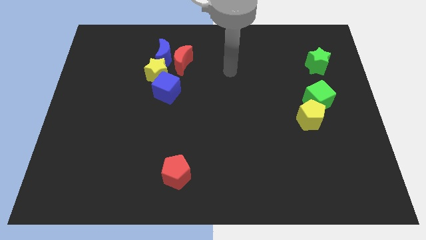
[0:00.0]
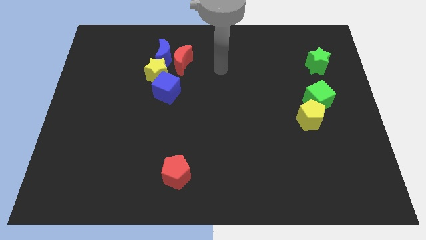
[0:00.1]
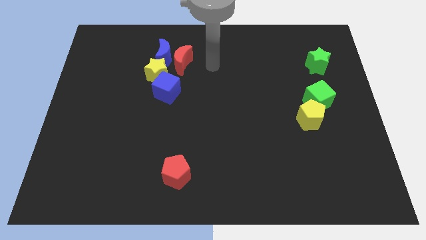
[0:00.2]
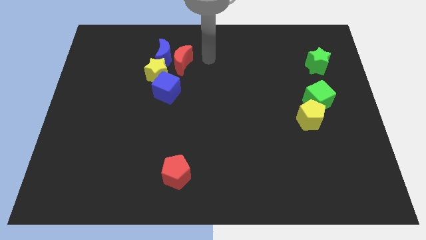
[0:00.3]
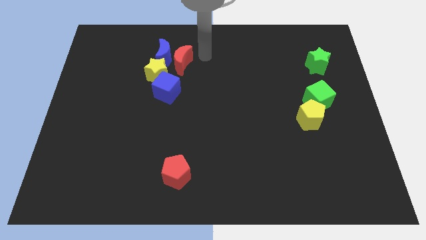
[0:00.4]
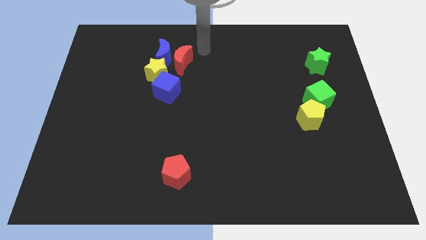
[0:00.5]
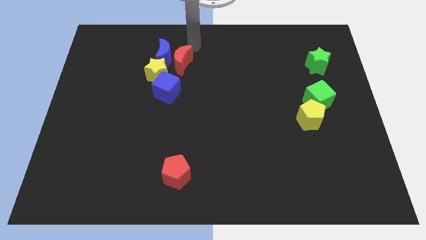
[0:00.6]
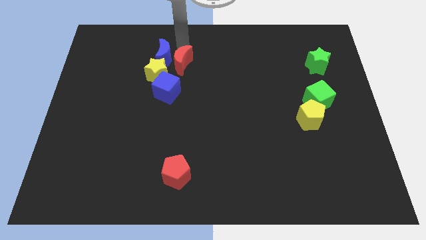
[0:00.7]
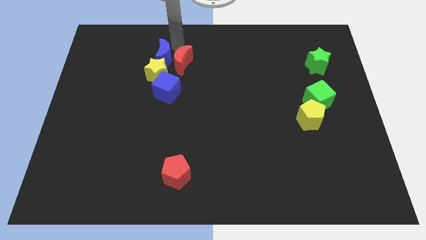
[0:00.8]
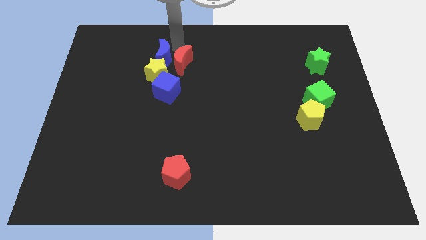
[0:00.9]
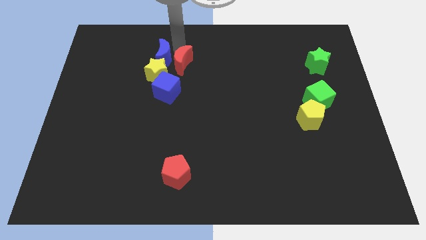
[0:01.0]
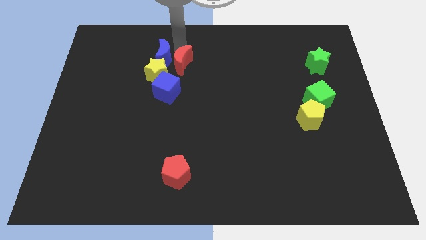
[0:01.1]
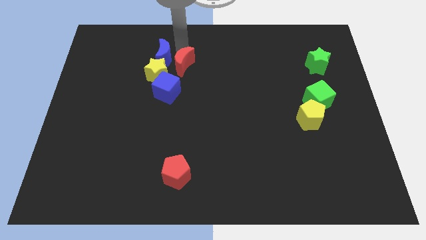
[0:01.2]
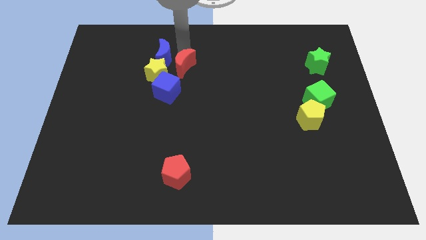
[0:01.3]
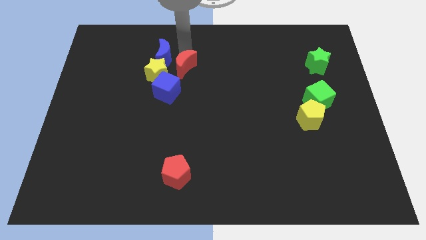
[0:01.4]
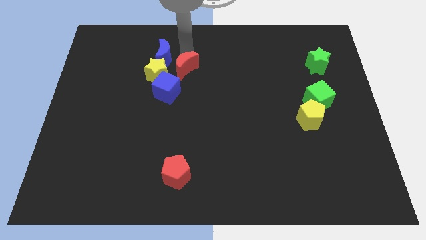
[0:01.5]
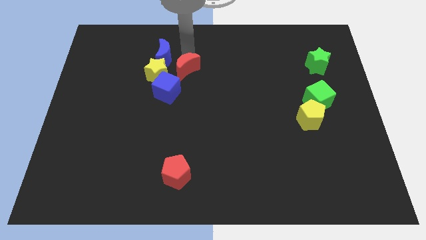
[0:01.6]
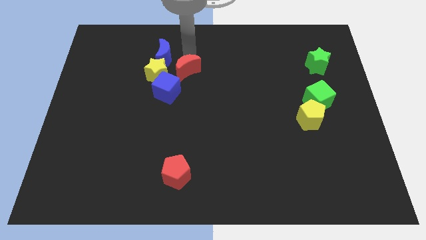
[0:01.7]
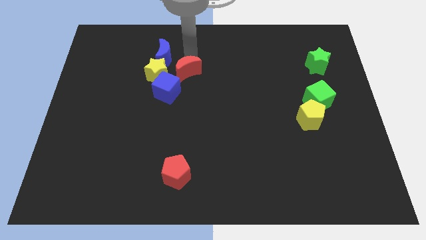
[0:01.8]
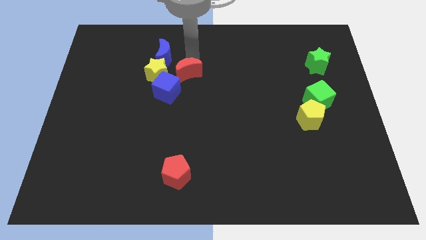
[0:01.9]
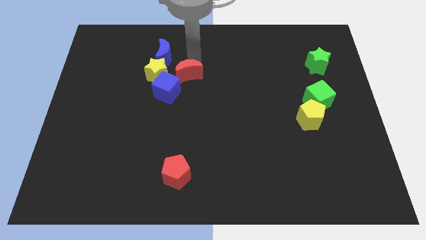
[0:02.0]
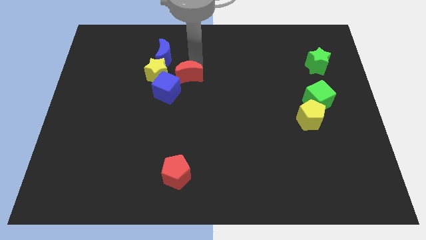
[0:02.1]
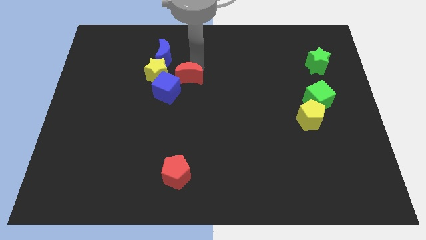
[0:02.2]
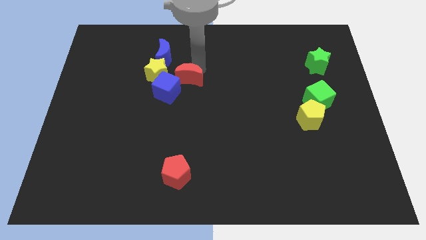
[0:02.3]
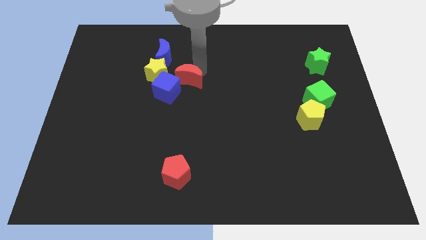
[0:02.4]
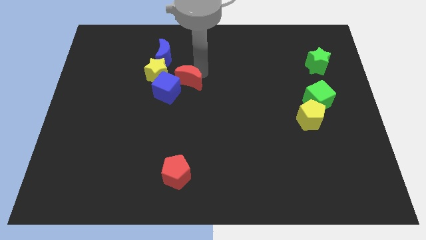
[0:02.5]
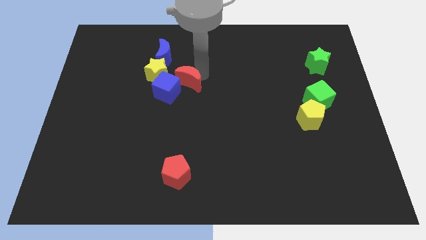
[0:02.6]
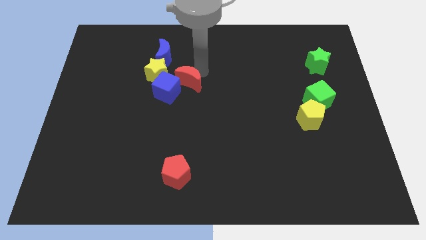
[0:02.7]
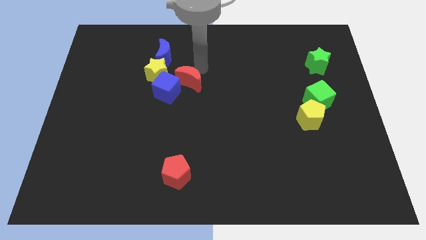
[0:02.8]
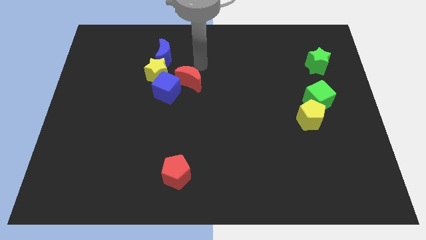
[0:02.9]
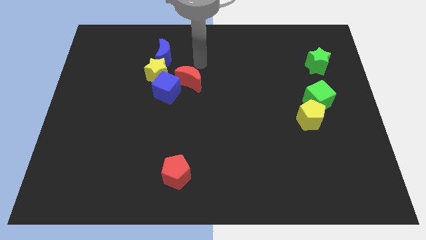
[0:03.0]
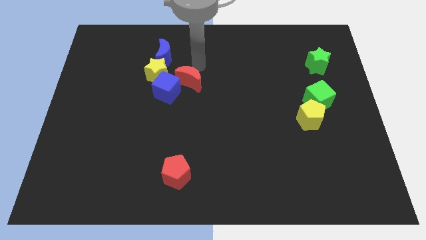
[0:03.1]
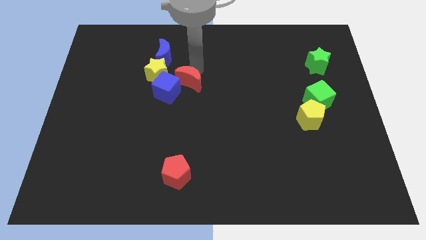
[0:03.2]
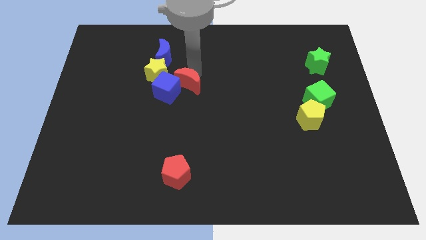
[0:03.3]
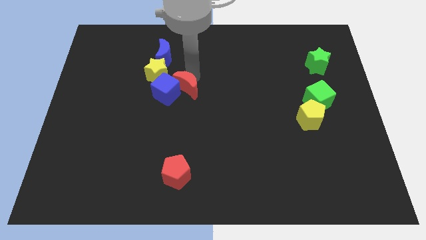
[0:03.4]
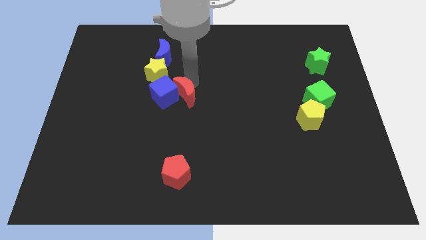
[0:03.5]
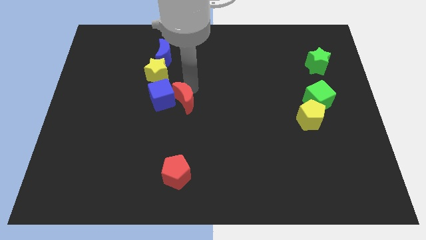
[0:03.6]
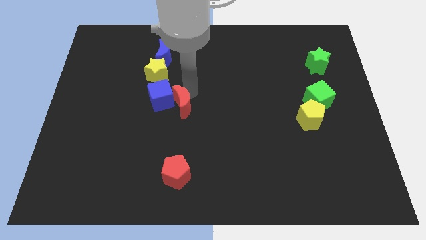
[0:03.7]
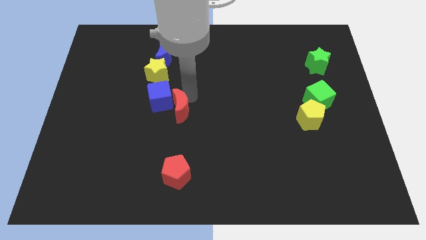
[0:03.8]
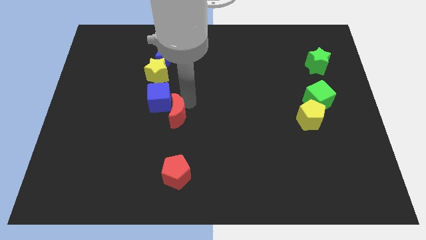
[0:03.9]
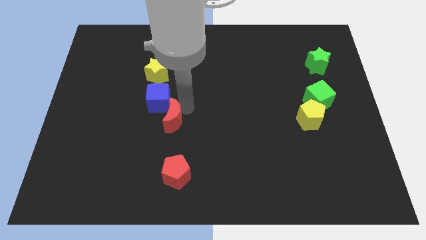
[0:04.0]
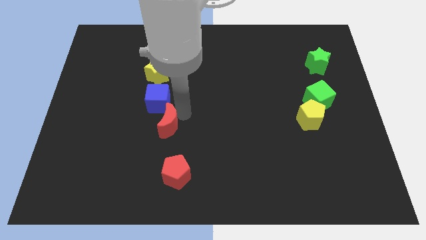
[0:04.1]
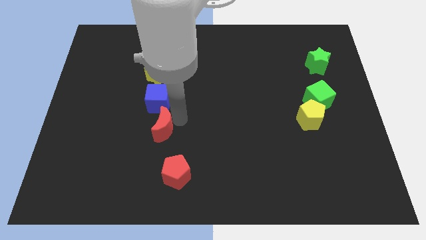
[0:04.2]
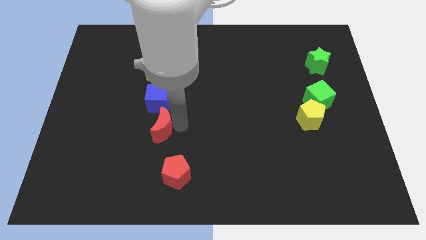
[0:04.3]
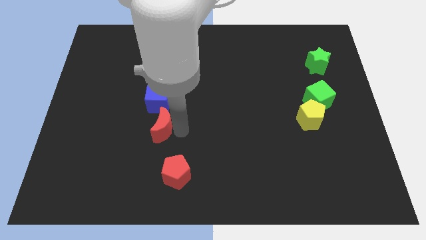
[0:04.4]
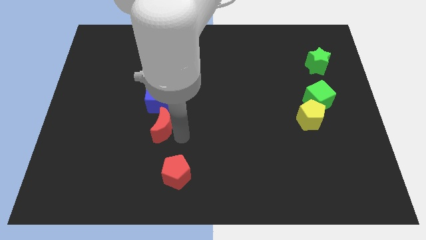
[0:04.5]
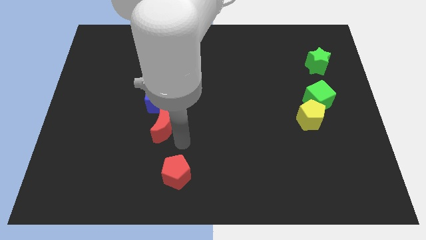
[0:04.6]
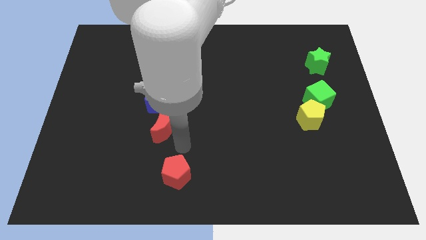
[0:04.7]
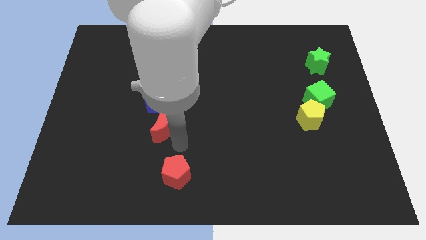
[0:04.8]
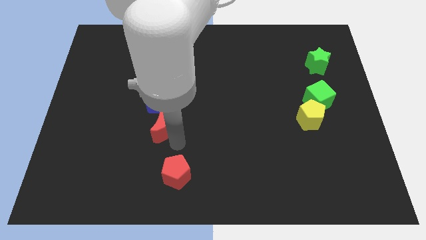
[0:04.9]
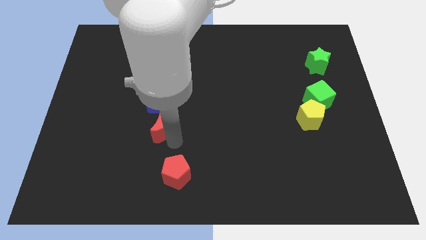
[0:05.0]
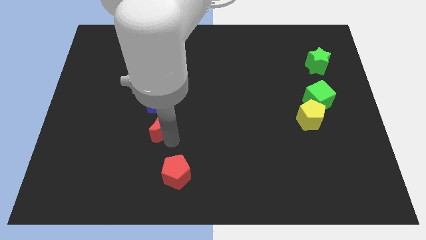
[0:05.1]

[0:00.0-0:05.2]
slightly push the red moon down and to the left diagonally

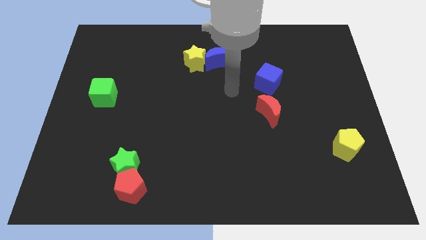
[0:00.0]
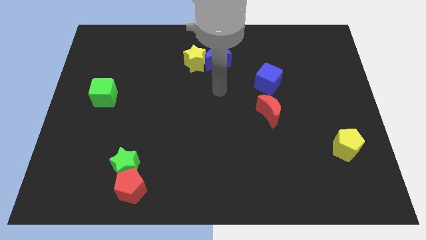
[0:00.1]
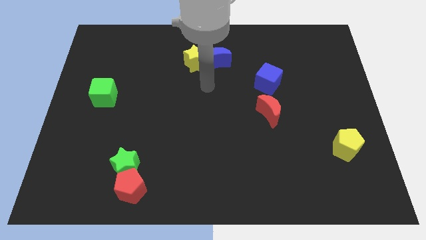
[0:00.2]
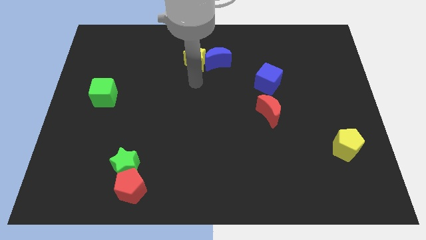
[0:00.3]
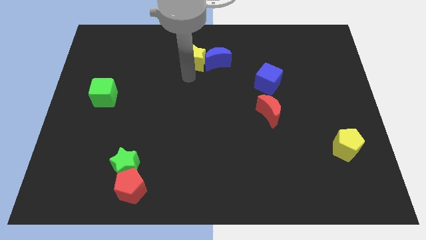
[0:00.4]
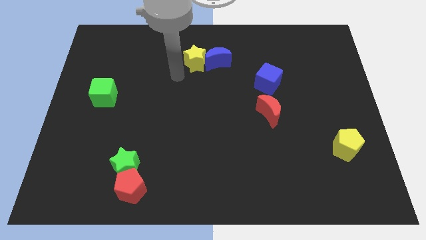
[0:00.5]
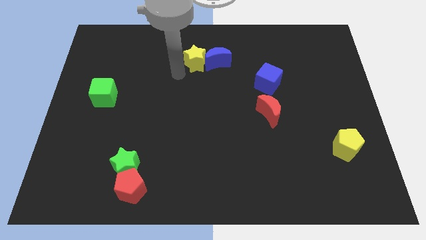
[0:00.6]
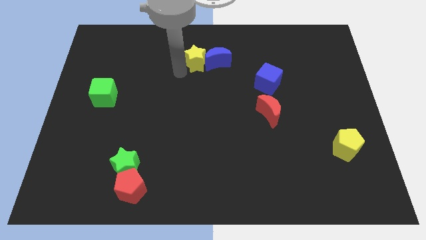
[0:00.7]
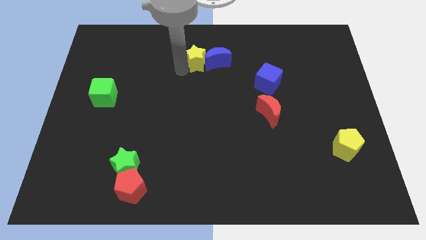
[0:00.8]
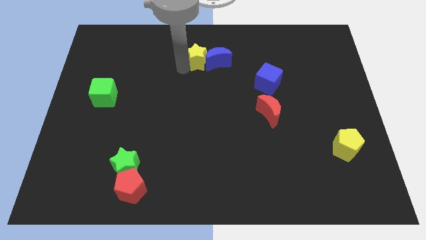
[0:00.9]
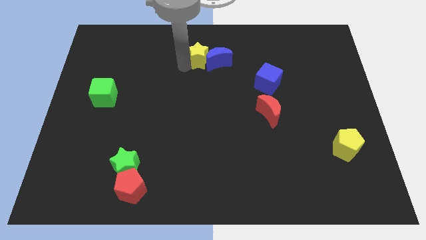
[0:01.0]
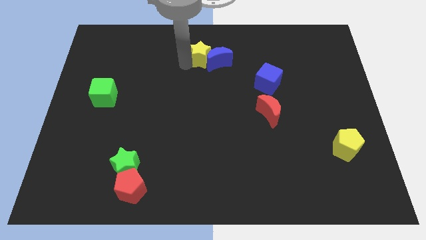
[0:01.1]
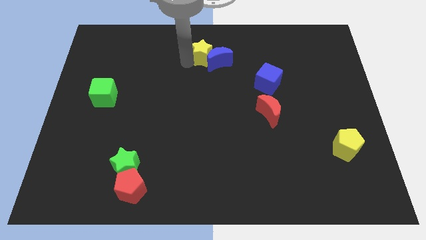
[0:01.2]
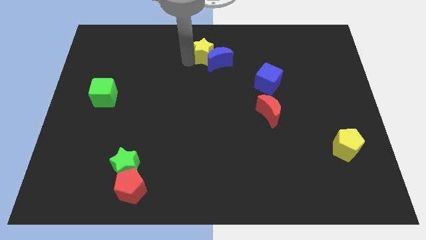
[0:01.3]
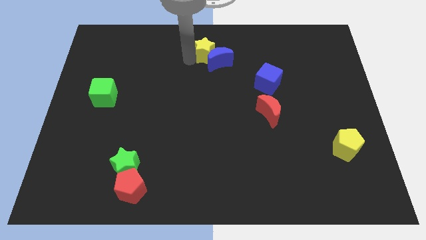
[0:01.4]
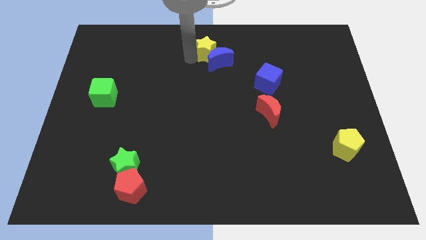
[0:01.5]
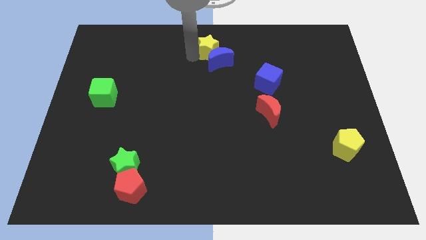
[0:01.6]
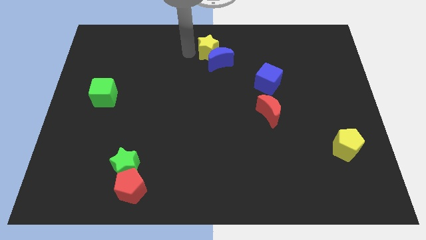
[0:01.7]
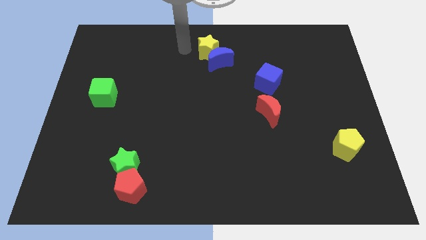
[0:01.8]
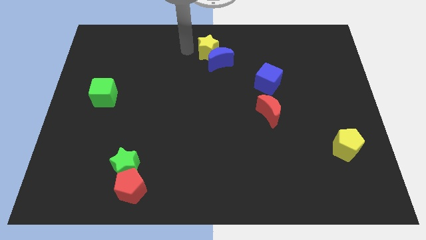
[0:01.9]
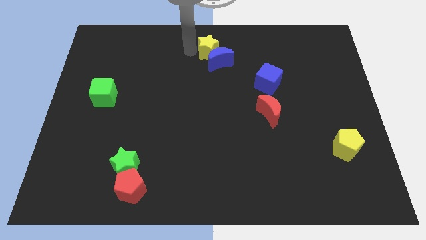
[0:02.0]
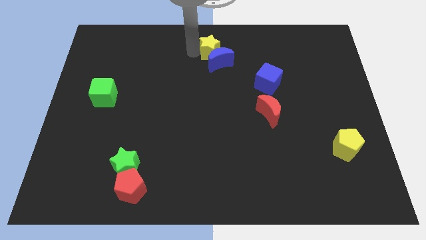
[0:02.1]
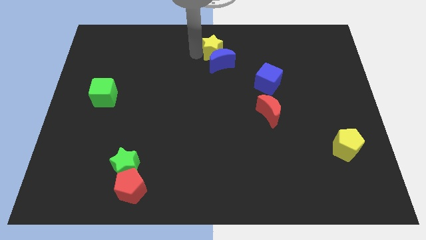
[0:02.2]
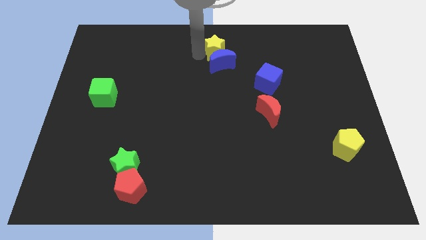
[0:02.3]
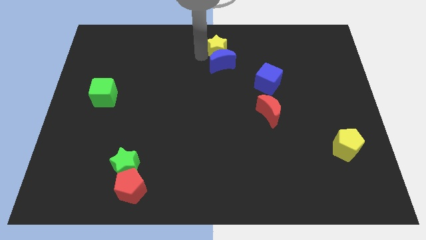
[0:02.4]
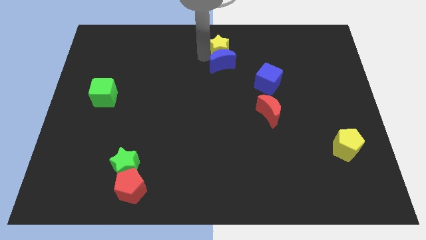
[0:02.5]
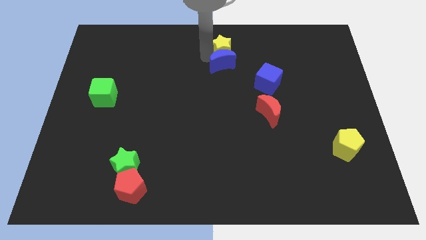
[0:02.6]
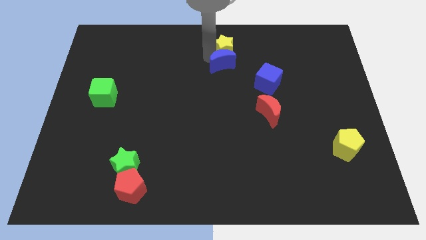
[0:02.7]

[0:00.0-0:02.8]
slightly slide the yellow star right

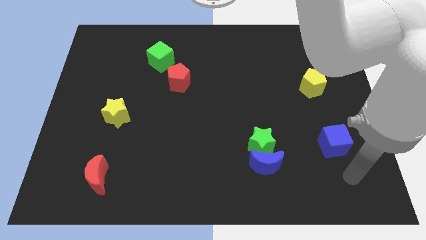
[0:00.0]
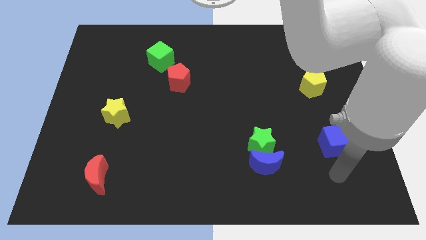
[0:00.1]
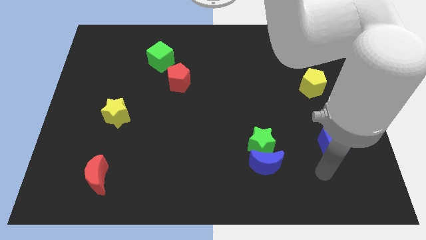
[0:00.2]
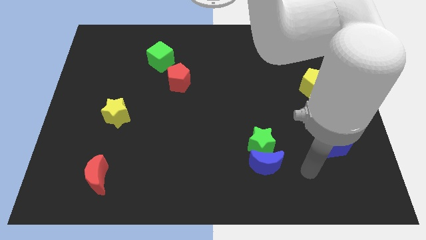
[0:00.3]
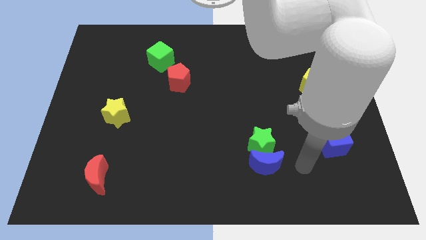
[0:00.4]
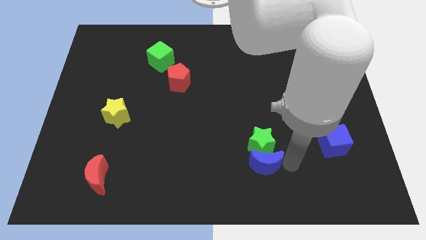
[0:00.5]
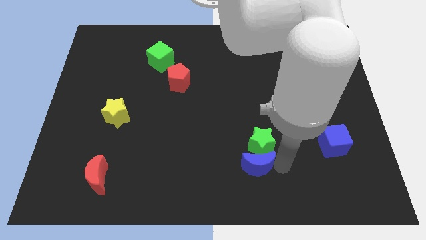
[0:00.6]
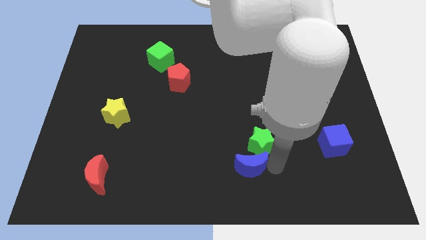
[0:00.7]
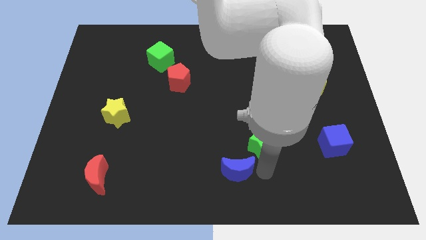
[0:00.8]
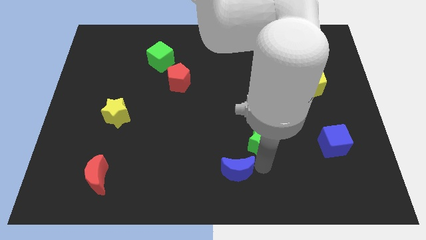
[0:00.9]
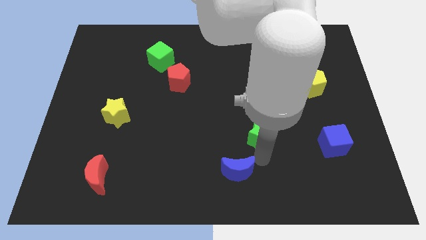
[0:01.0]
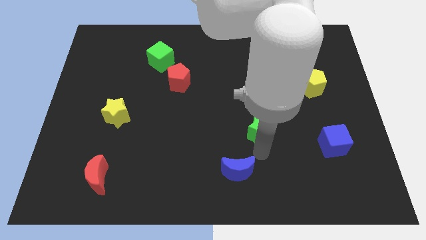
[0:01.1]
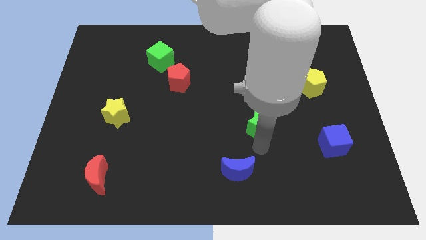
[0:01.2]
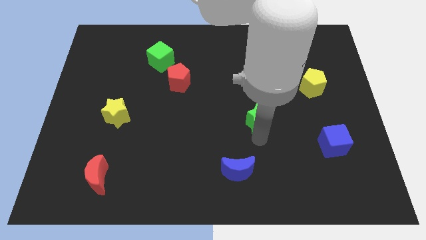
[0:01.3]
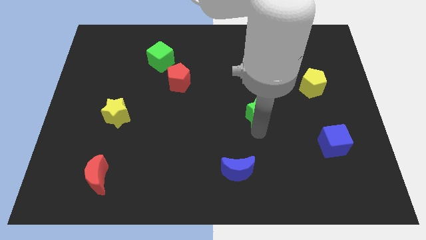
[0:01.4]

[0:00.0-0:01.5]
move the green star slightly up
